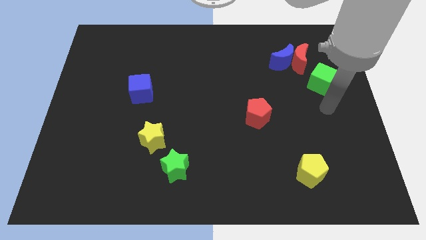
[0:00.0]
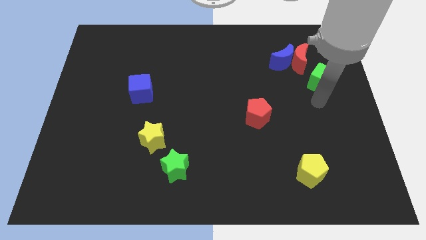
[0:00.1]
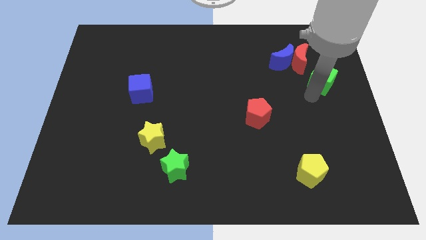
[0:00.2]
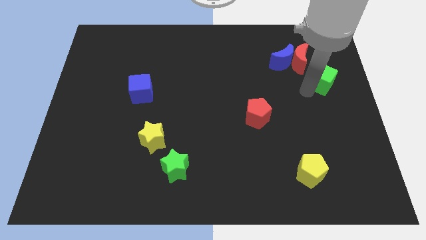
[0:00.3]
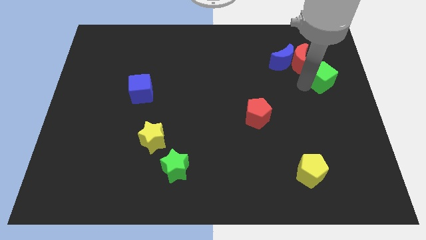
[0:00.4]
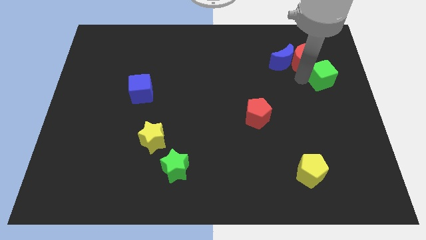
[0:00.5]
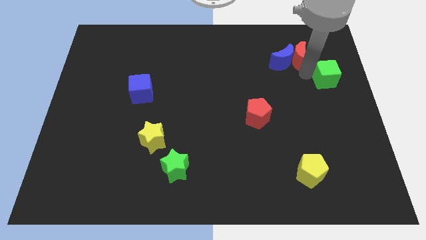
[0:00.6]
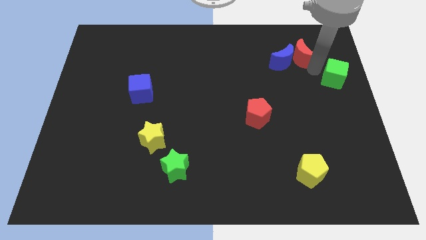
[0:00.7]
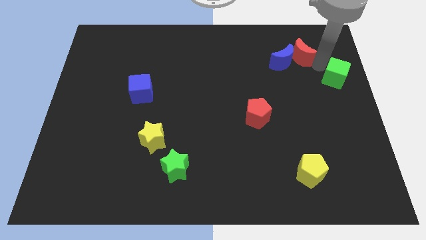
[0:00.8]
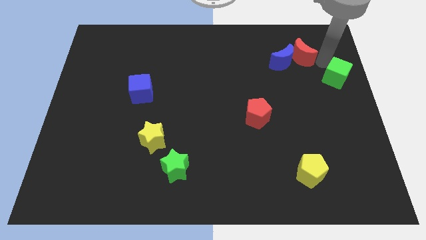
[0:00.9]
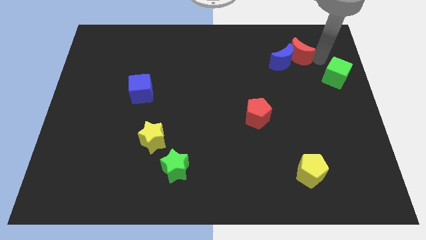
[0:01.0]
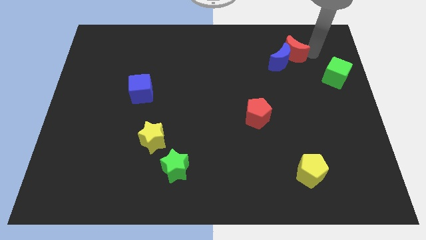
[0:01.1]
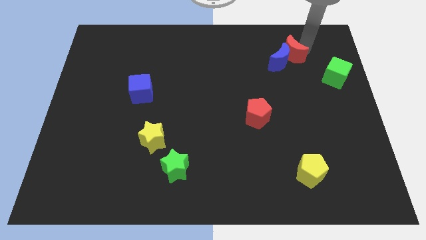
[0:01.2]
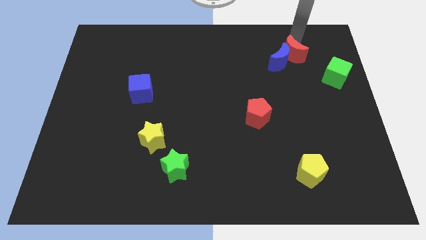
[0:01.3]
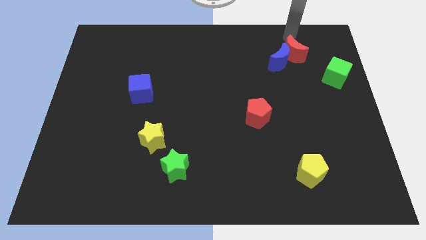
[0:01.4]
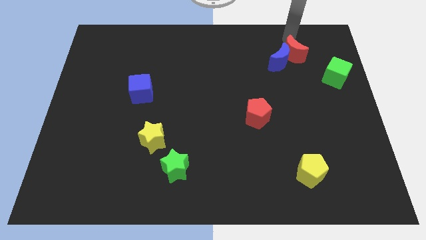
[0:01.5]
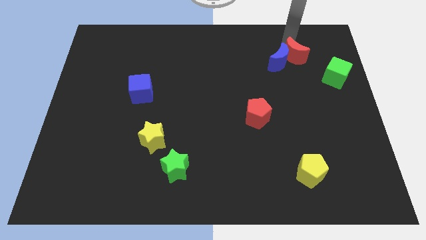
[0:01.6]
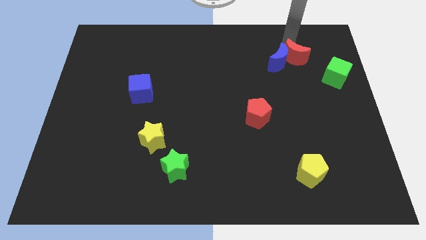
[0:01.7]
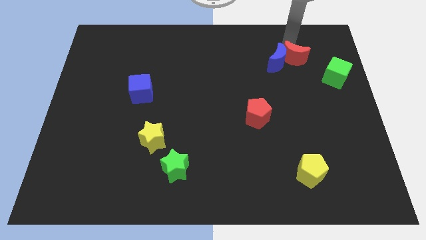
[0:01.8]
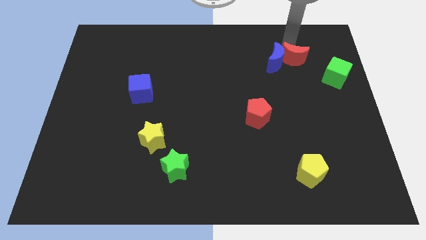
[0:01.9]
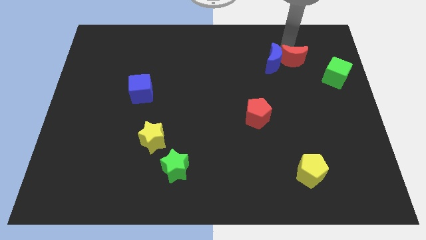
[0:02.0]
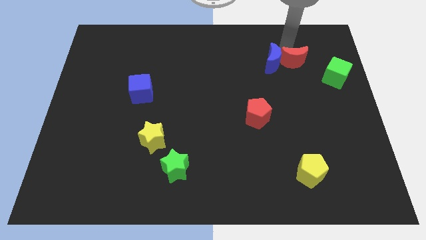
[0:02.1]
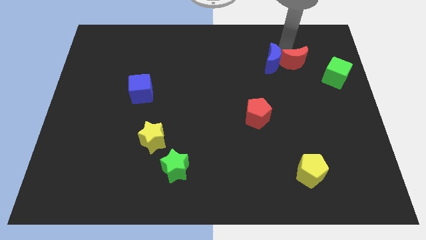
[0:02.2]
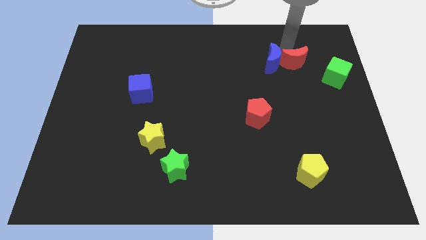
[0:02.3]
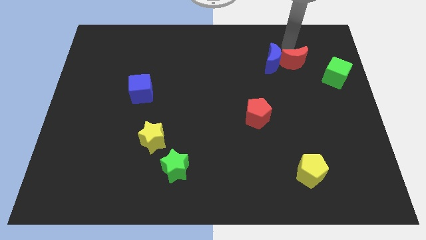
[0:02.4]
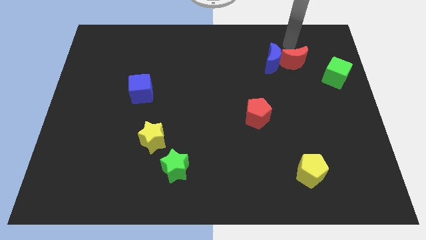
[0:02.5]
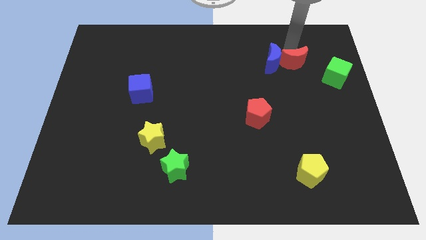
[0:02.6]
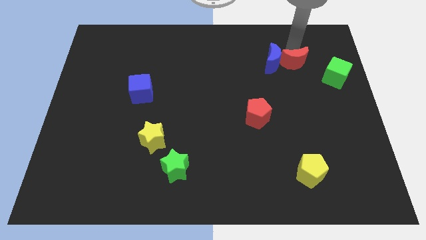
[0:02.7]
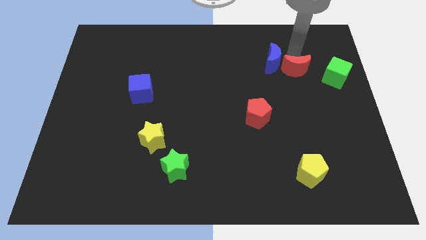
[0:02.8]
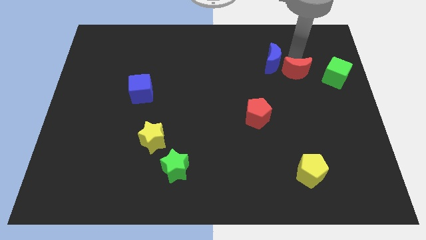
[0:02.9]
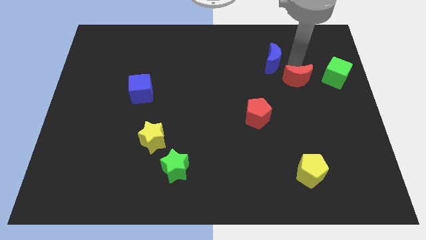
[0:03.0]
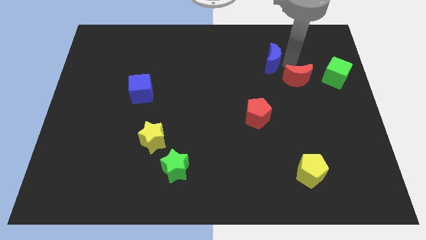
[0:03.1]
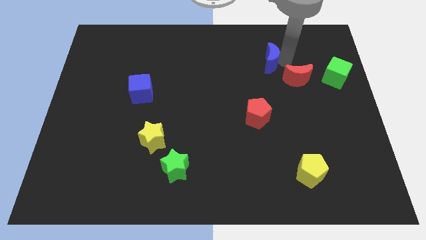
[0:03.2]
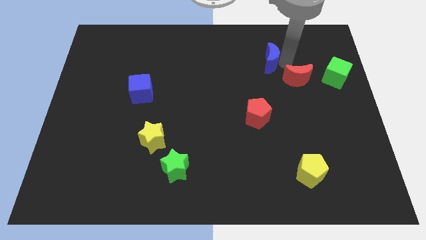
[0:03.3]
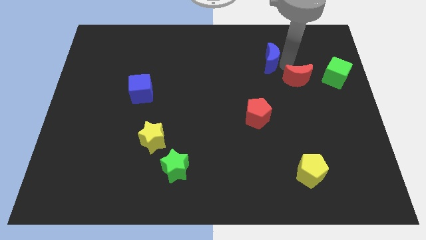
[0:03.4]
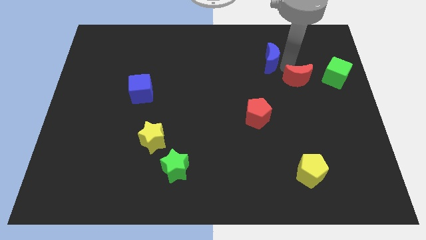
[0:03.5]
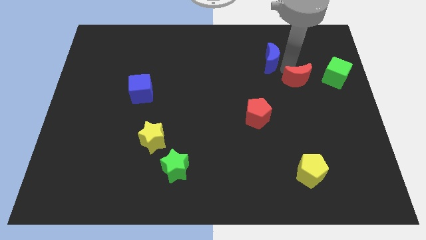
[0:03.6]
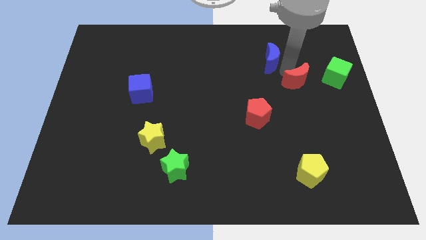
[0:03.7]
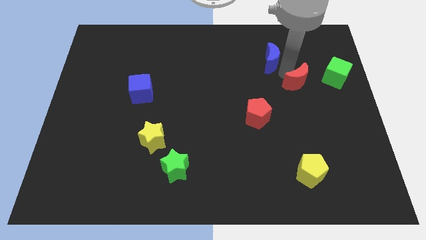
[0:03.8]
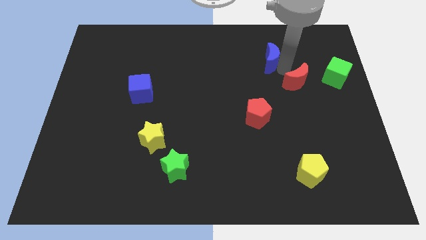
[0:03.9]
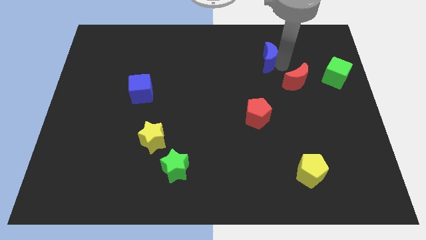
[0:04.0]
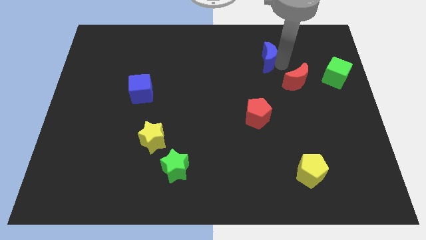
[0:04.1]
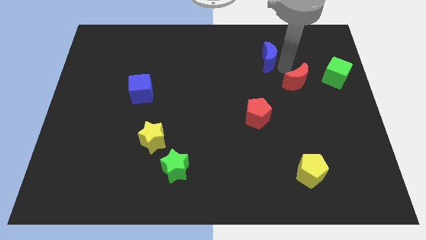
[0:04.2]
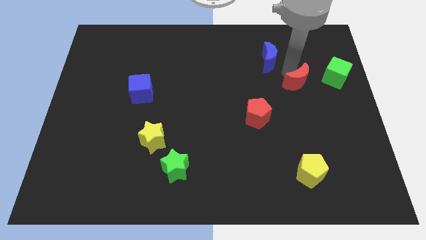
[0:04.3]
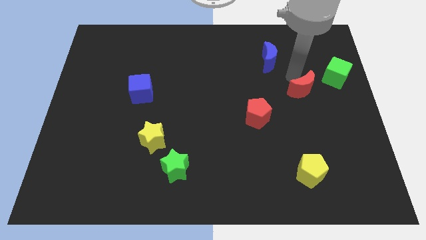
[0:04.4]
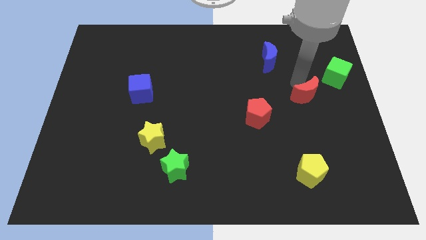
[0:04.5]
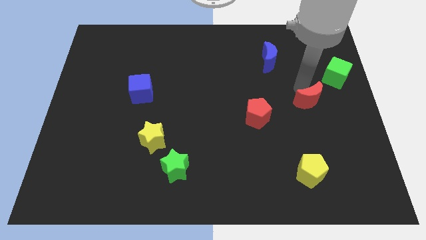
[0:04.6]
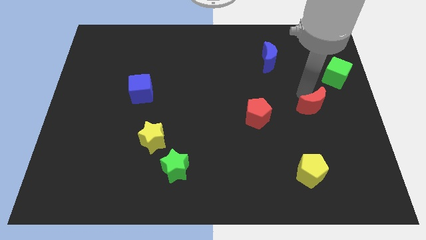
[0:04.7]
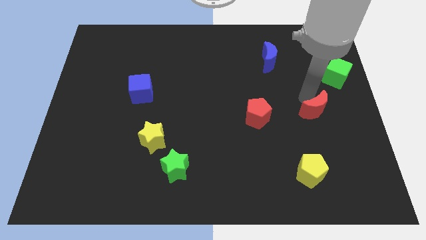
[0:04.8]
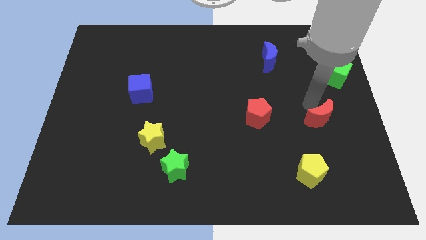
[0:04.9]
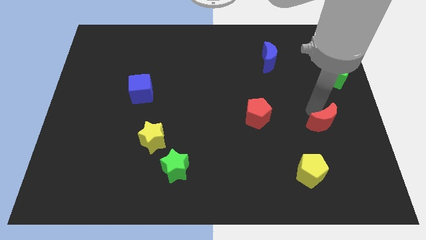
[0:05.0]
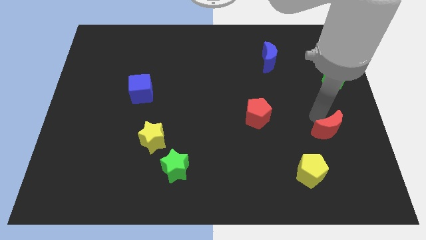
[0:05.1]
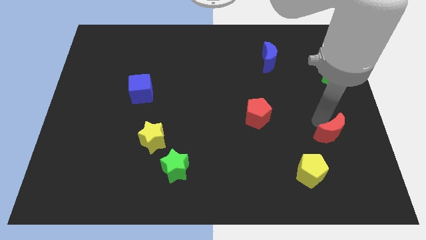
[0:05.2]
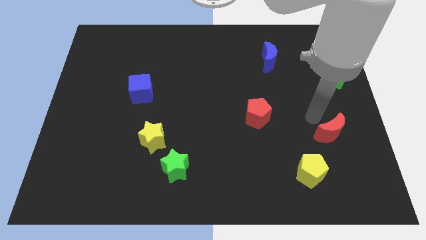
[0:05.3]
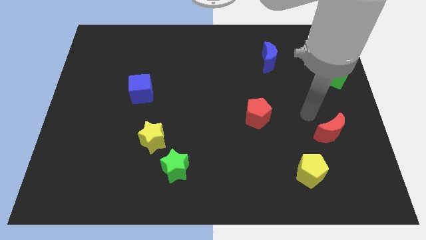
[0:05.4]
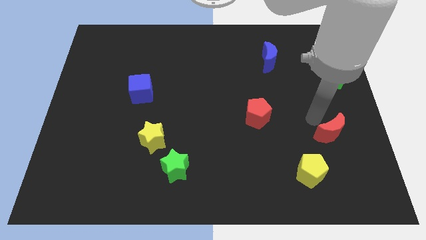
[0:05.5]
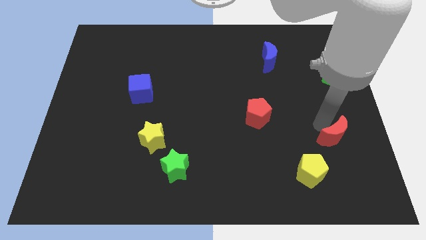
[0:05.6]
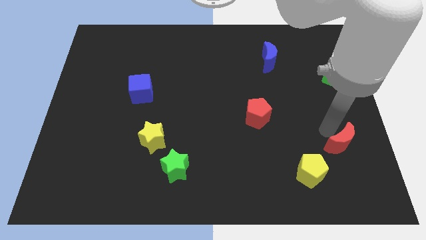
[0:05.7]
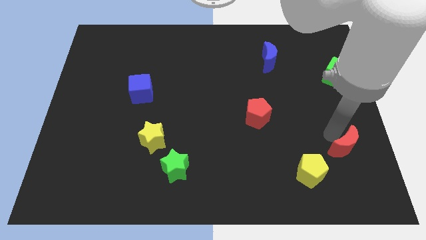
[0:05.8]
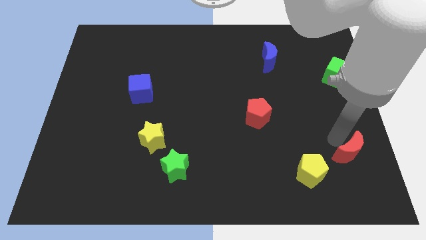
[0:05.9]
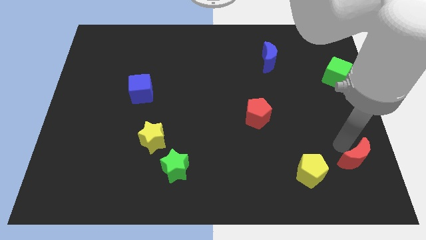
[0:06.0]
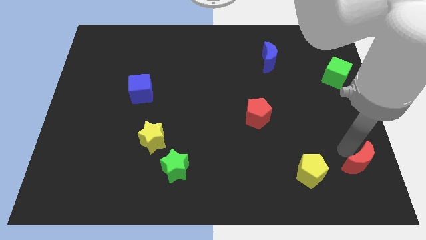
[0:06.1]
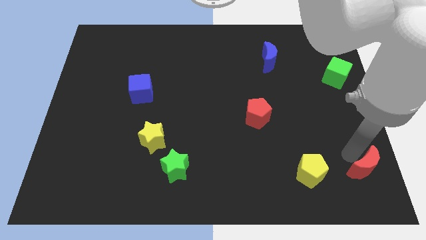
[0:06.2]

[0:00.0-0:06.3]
put the red moon to the lower right corner
